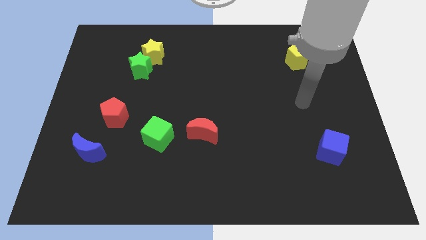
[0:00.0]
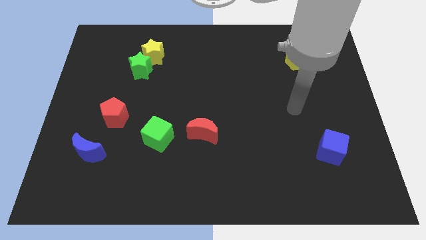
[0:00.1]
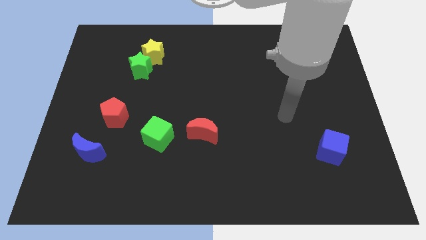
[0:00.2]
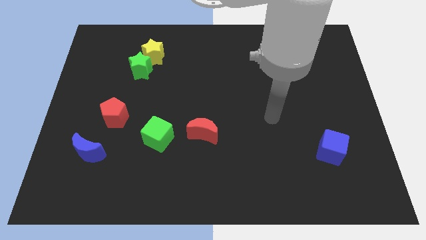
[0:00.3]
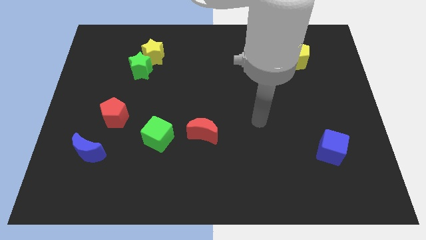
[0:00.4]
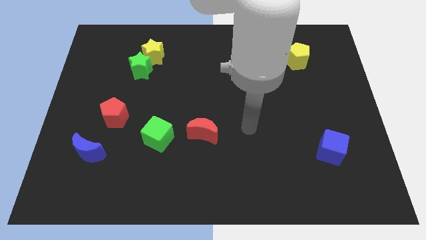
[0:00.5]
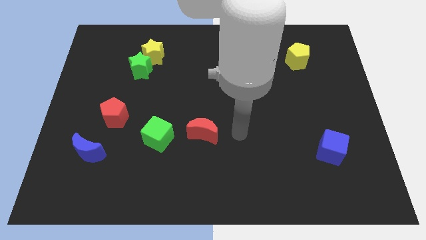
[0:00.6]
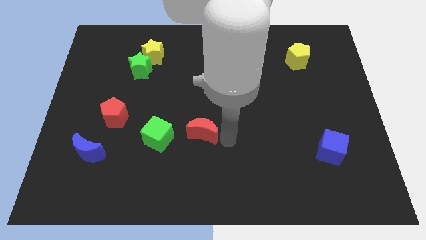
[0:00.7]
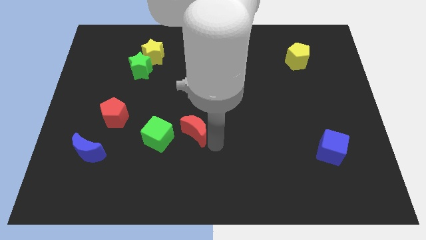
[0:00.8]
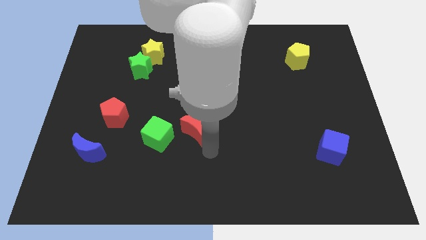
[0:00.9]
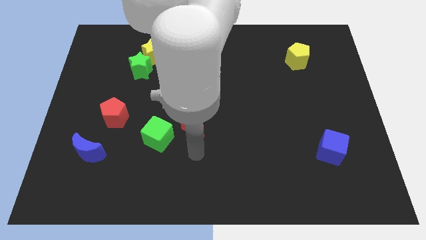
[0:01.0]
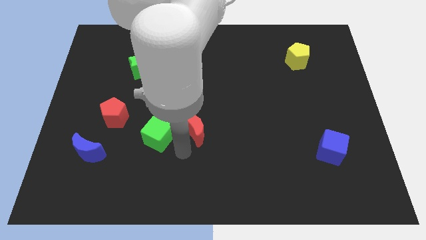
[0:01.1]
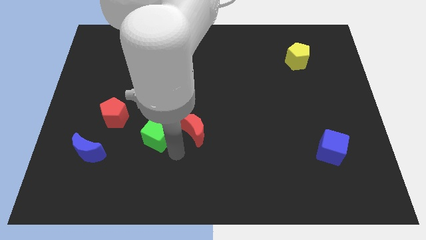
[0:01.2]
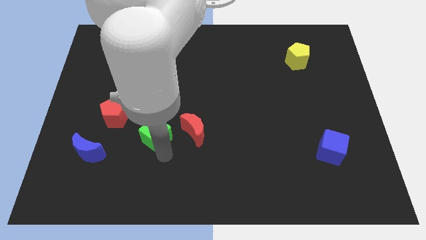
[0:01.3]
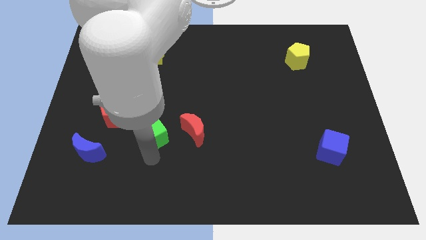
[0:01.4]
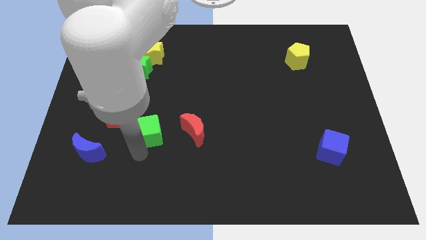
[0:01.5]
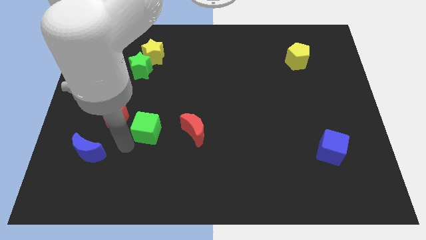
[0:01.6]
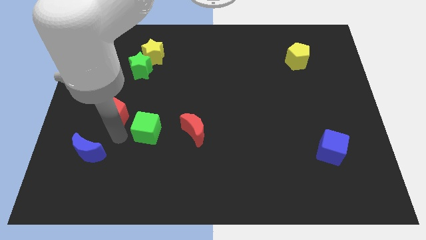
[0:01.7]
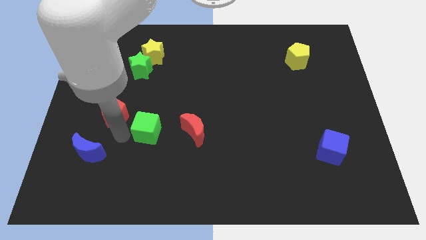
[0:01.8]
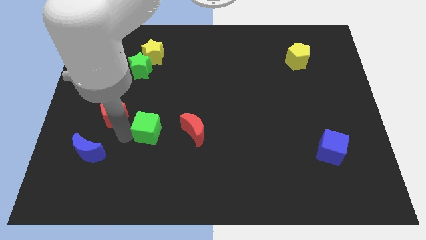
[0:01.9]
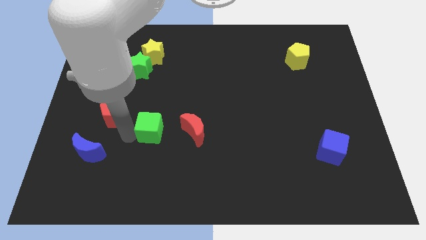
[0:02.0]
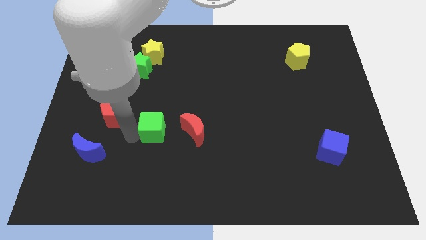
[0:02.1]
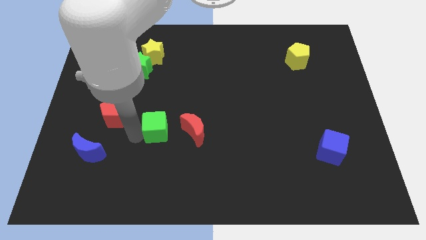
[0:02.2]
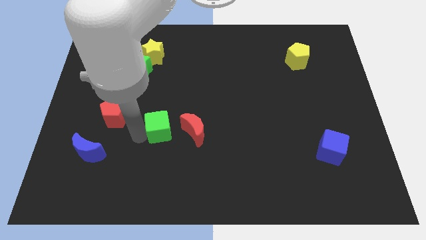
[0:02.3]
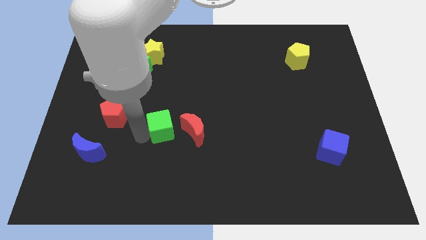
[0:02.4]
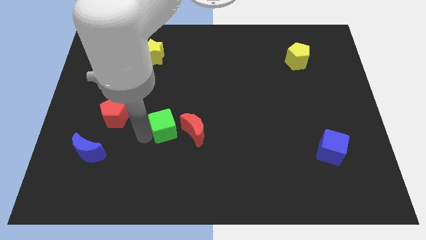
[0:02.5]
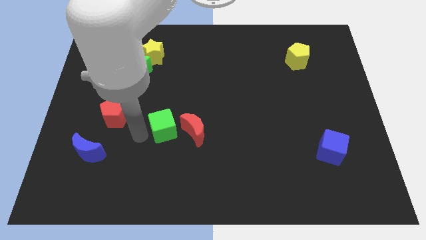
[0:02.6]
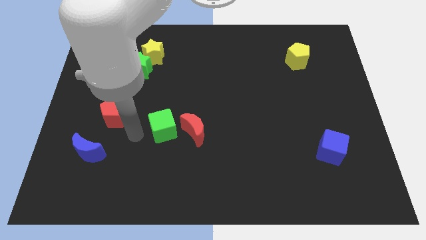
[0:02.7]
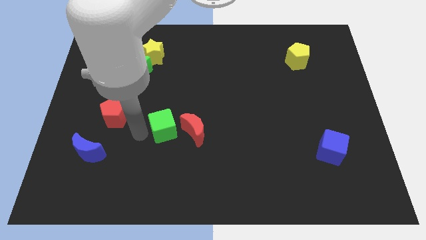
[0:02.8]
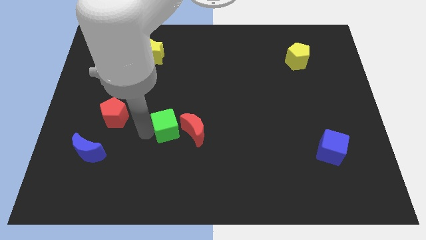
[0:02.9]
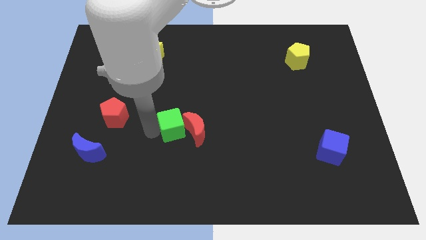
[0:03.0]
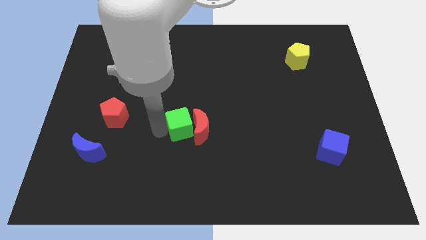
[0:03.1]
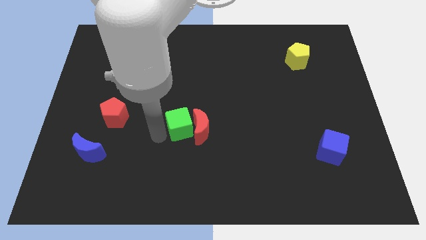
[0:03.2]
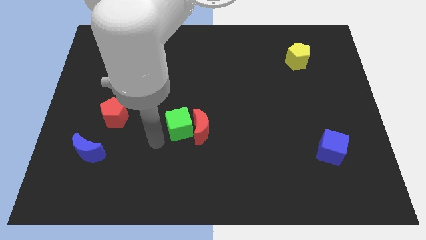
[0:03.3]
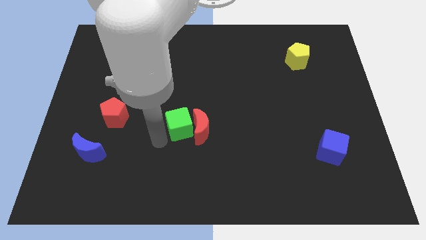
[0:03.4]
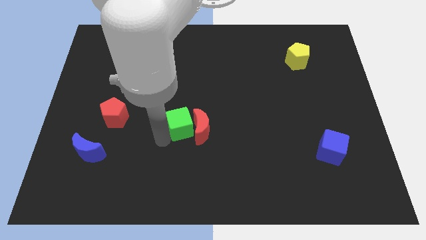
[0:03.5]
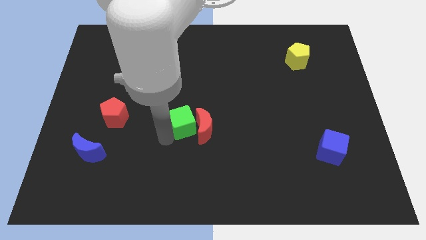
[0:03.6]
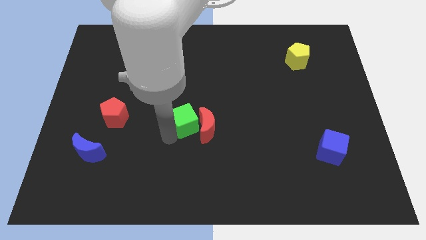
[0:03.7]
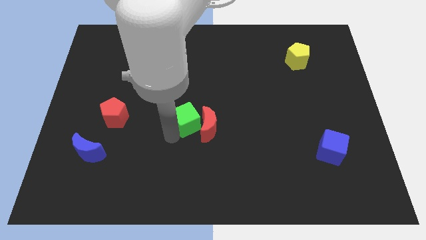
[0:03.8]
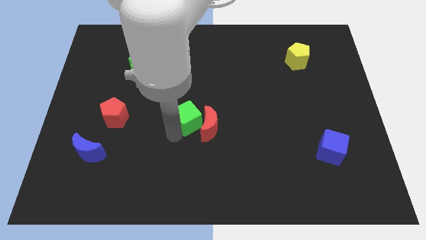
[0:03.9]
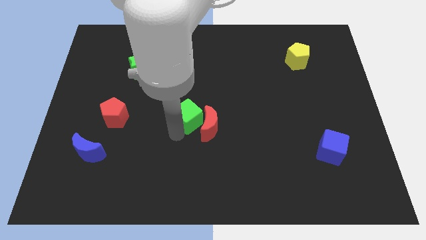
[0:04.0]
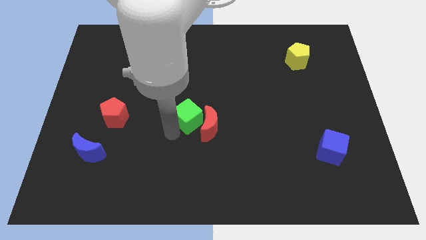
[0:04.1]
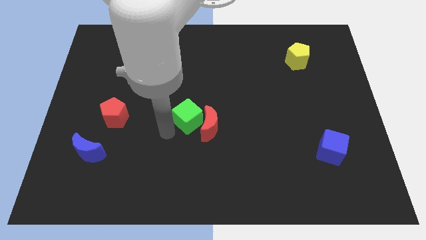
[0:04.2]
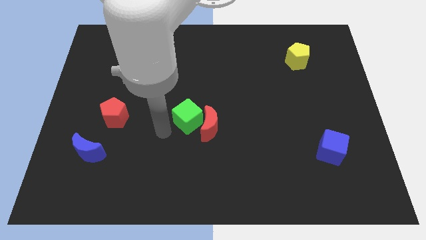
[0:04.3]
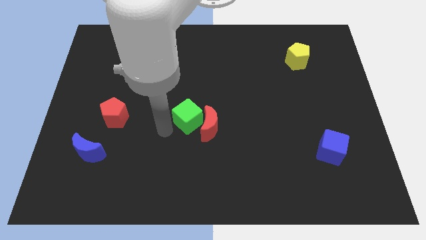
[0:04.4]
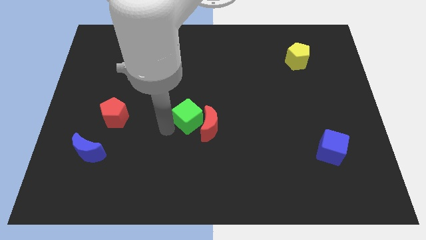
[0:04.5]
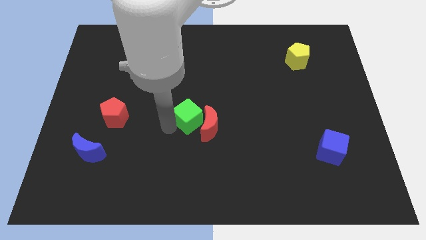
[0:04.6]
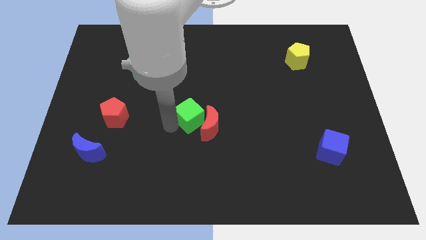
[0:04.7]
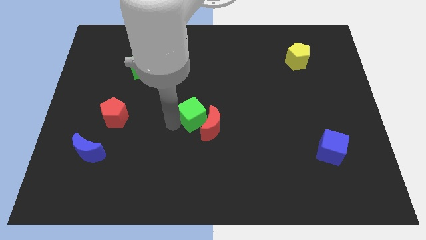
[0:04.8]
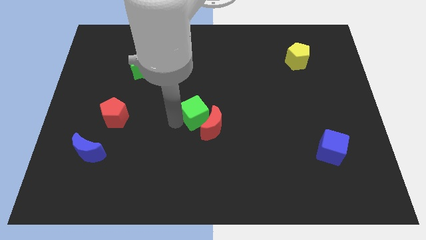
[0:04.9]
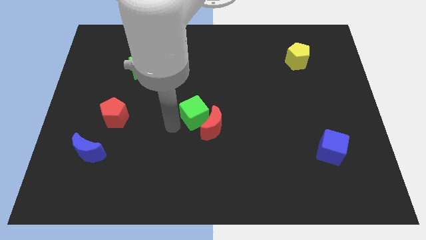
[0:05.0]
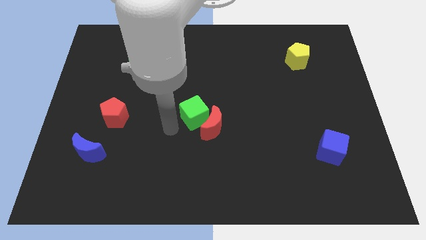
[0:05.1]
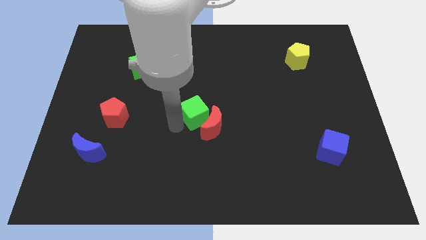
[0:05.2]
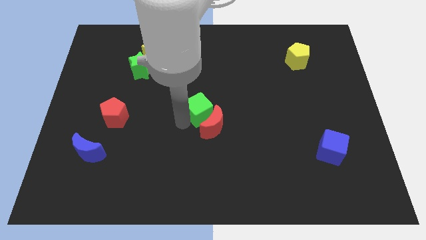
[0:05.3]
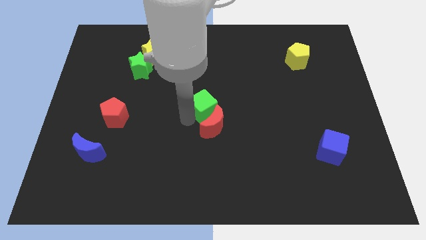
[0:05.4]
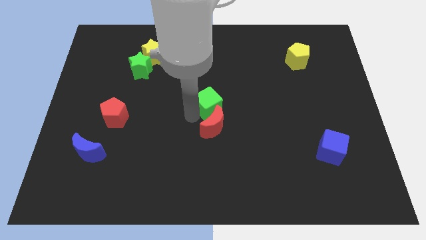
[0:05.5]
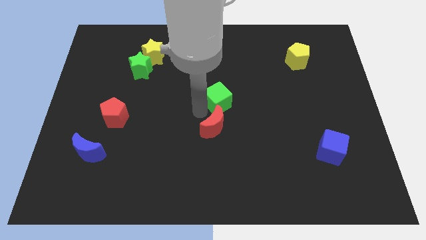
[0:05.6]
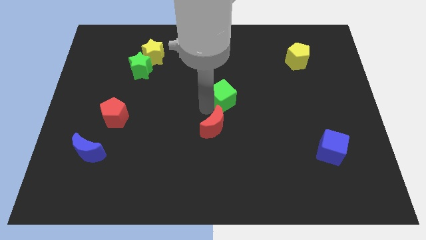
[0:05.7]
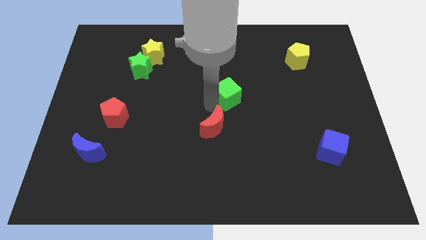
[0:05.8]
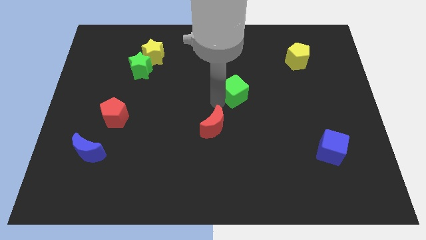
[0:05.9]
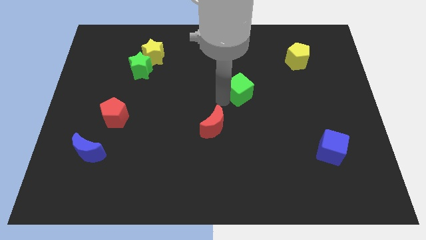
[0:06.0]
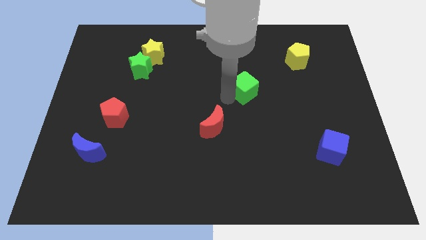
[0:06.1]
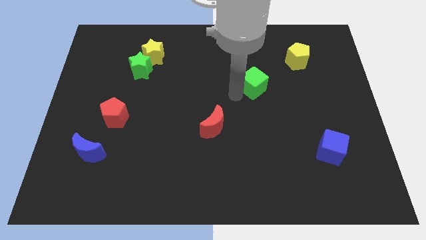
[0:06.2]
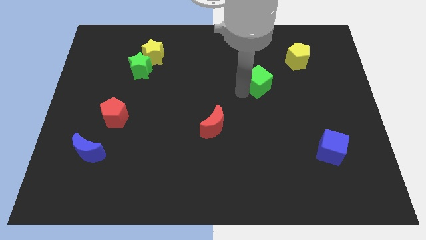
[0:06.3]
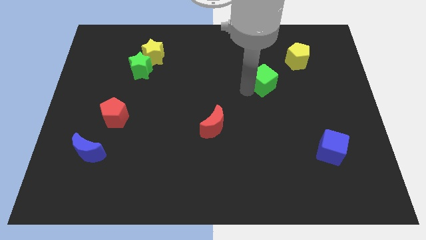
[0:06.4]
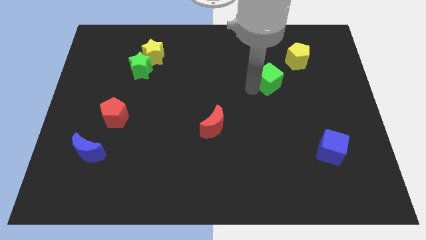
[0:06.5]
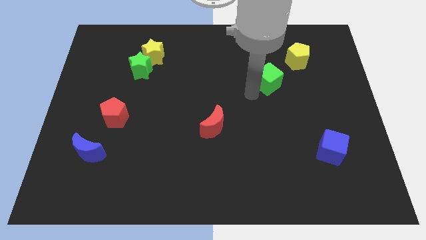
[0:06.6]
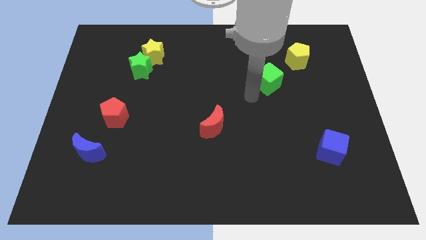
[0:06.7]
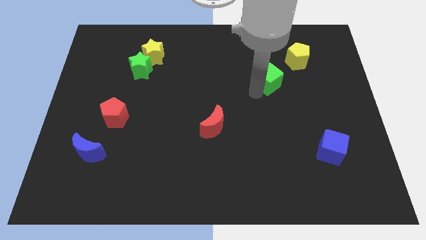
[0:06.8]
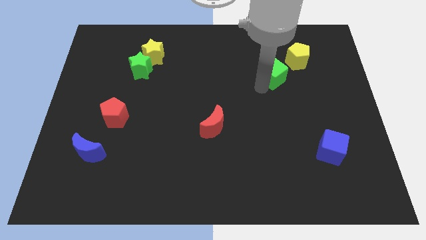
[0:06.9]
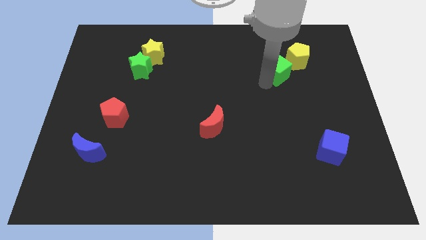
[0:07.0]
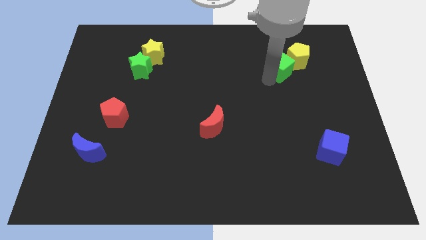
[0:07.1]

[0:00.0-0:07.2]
move the green cube to the yellow pentagon
